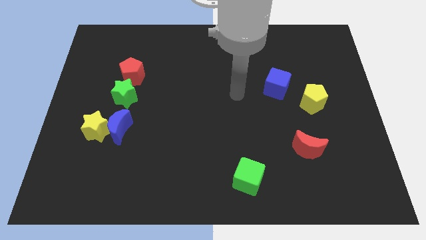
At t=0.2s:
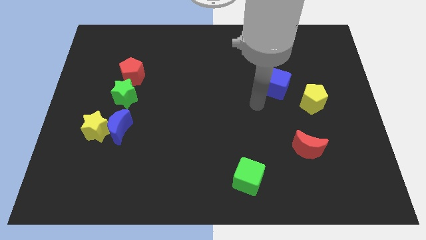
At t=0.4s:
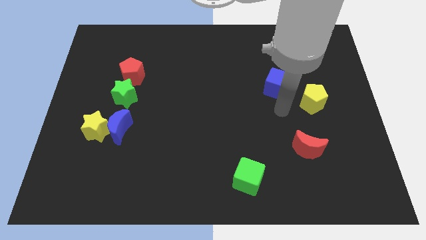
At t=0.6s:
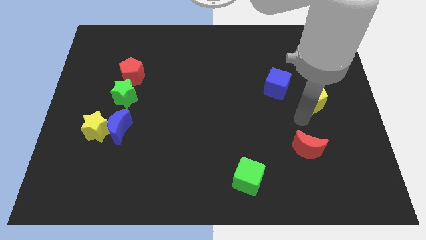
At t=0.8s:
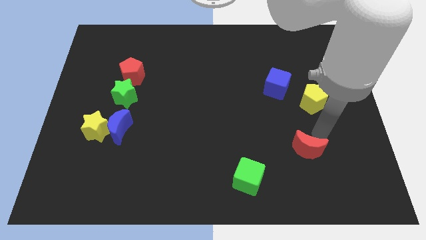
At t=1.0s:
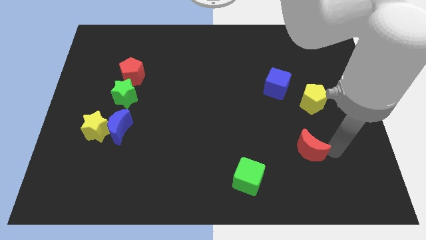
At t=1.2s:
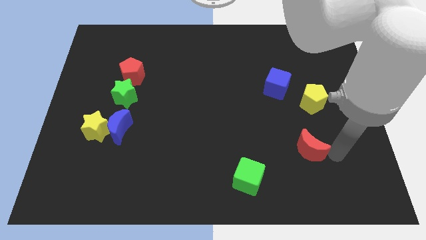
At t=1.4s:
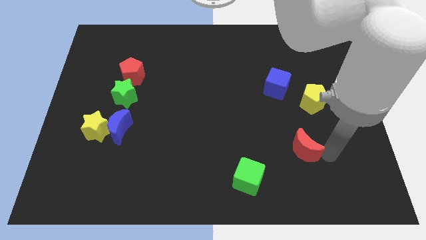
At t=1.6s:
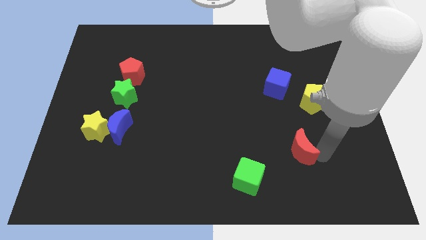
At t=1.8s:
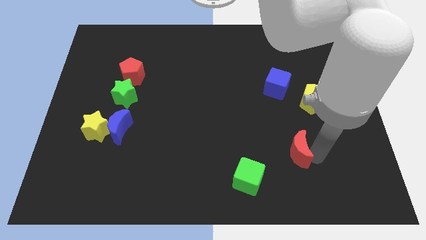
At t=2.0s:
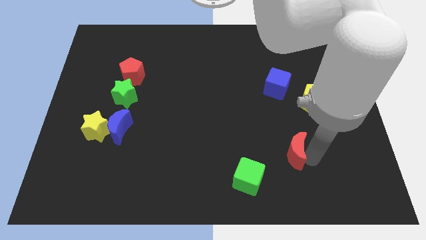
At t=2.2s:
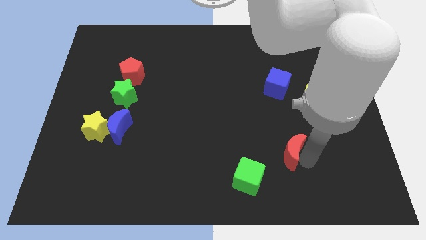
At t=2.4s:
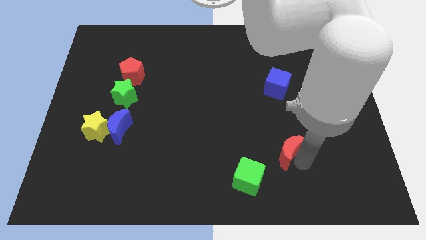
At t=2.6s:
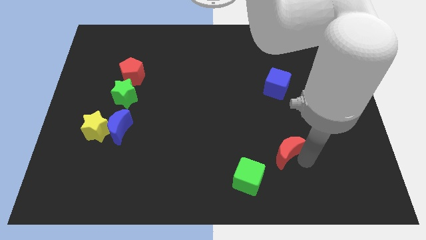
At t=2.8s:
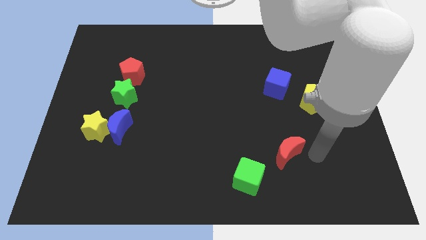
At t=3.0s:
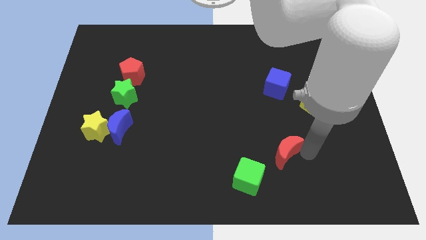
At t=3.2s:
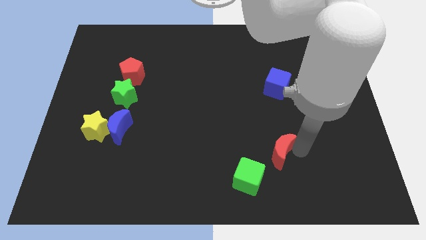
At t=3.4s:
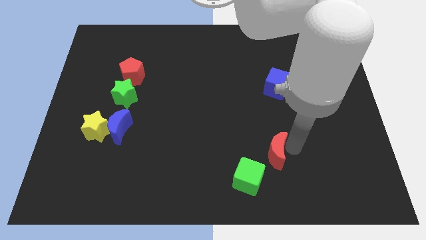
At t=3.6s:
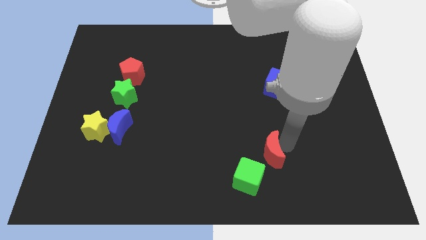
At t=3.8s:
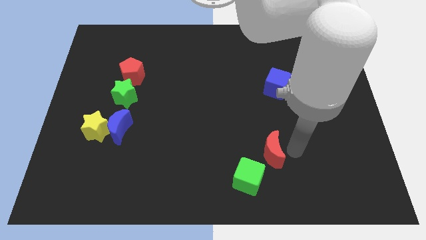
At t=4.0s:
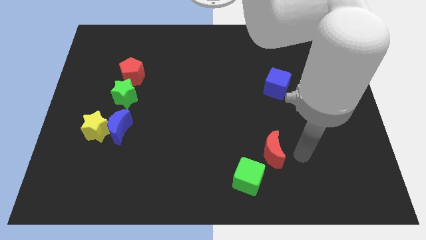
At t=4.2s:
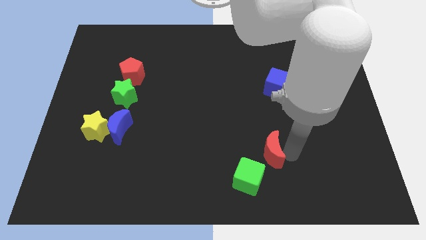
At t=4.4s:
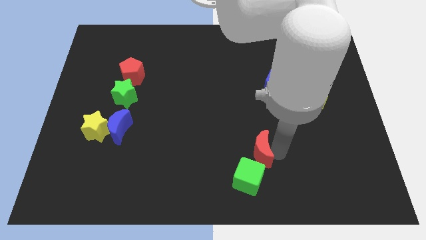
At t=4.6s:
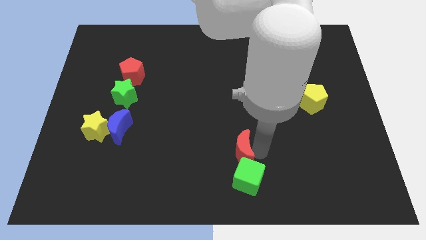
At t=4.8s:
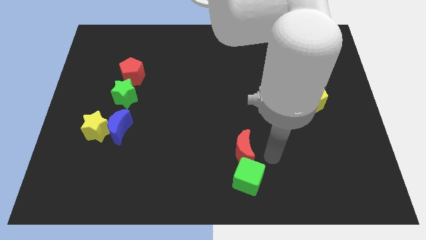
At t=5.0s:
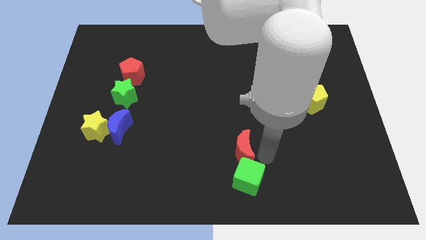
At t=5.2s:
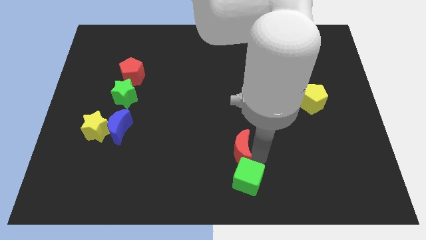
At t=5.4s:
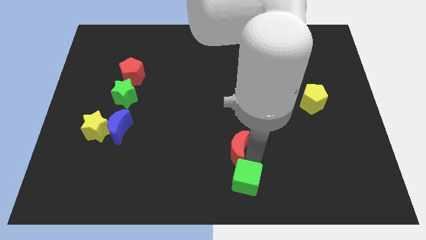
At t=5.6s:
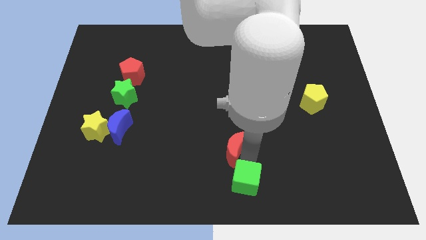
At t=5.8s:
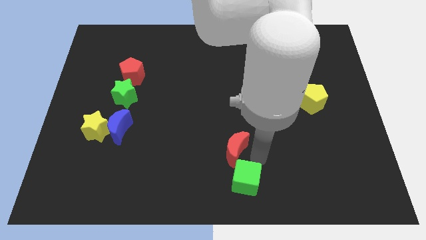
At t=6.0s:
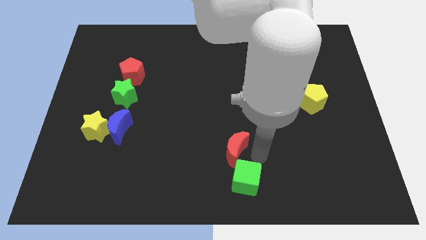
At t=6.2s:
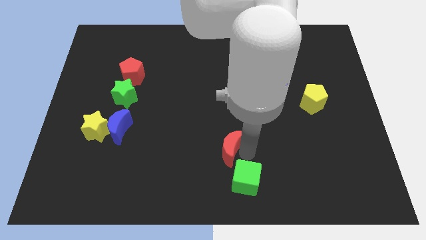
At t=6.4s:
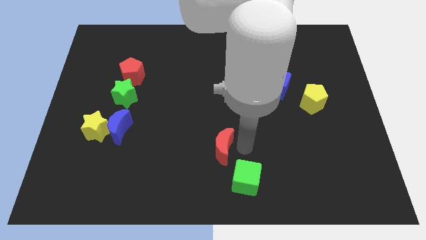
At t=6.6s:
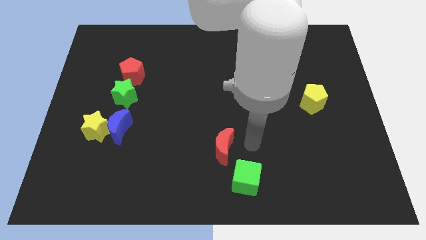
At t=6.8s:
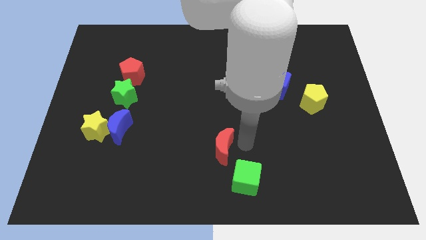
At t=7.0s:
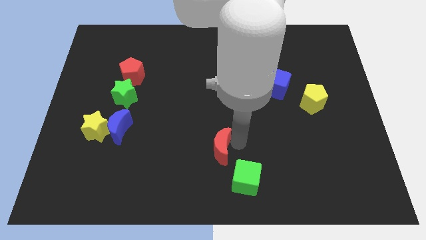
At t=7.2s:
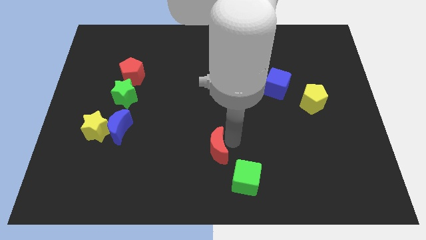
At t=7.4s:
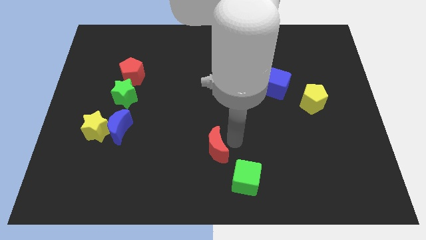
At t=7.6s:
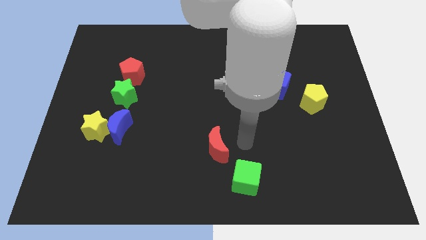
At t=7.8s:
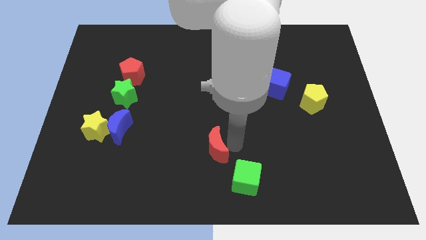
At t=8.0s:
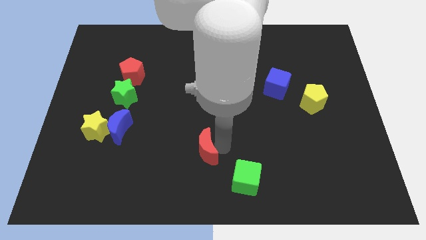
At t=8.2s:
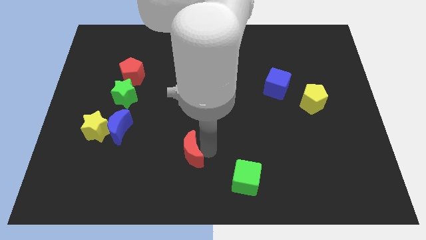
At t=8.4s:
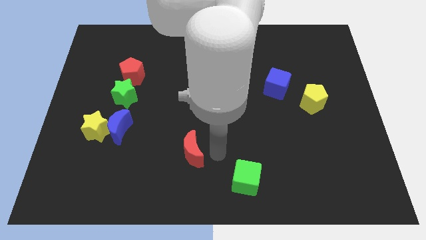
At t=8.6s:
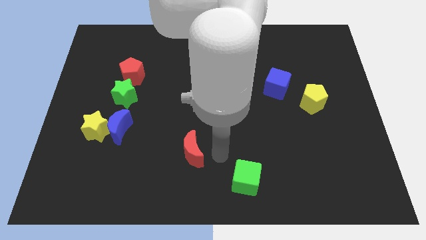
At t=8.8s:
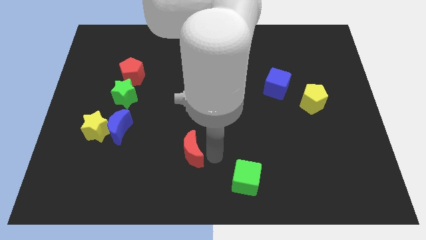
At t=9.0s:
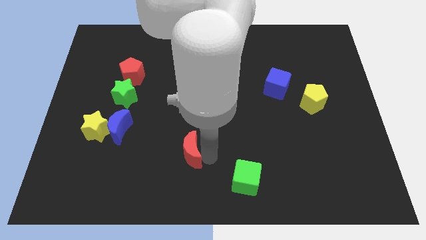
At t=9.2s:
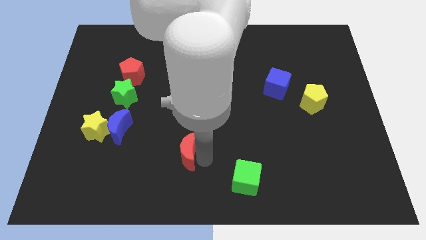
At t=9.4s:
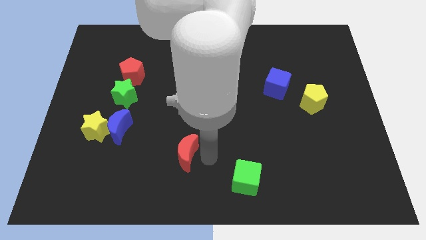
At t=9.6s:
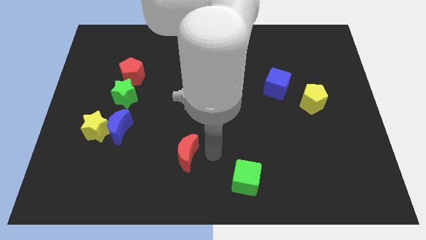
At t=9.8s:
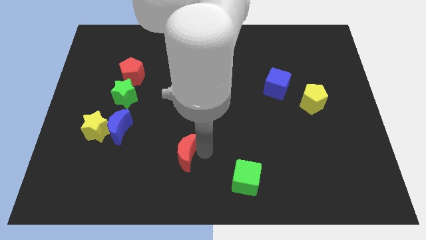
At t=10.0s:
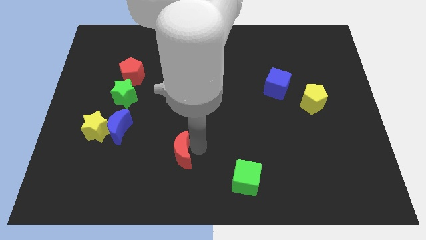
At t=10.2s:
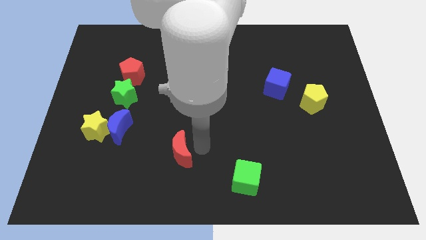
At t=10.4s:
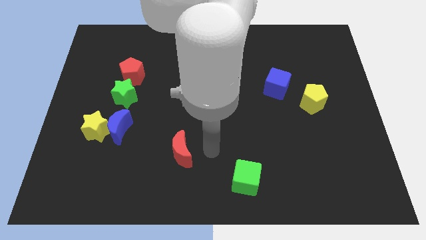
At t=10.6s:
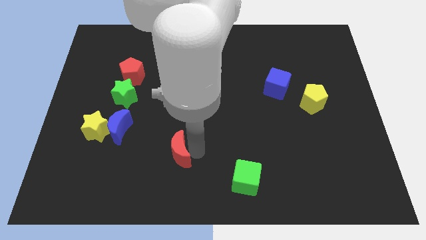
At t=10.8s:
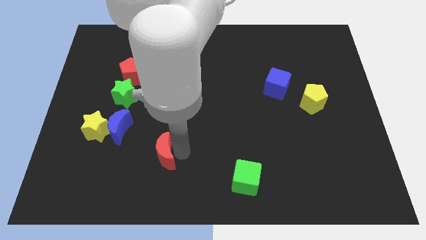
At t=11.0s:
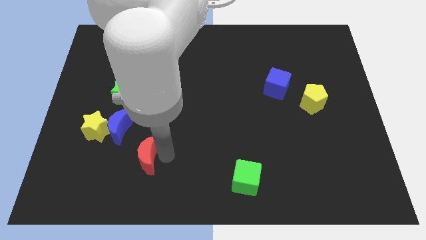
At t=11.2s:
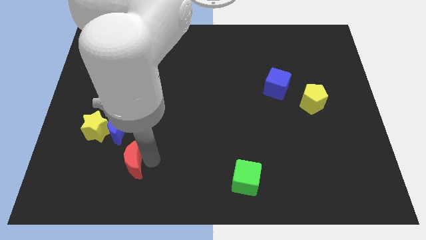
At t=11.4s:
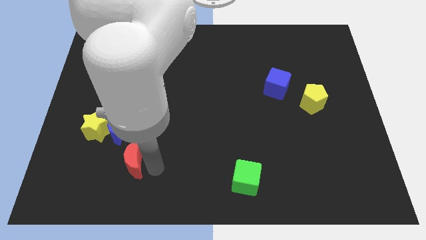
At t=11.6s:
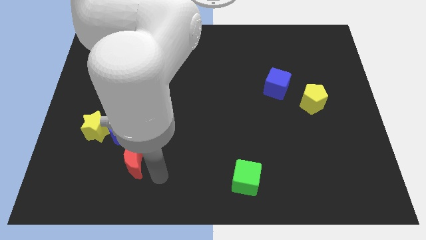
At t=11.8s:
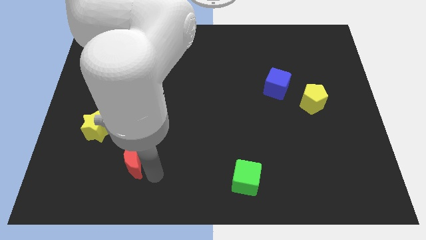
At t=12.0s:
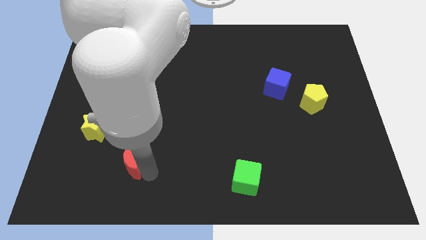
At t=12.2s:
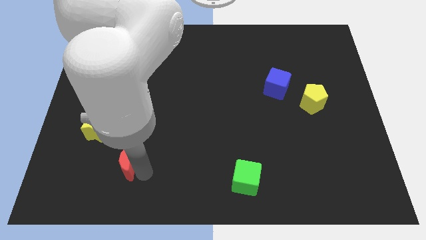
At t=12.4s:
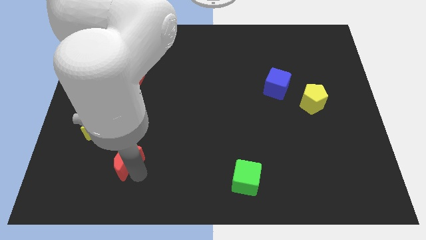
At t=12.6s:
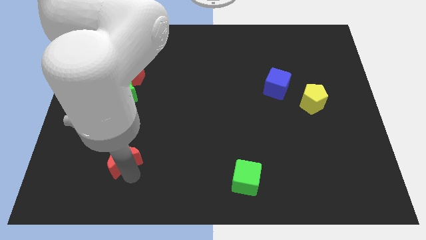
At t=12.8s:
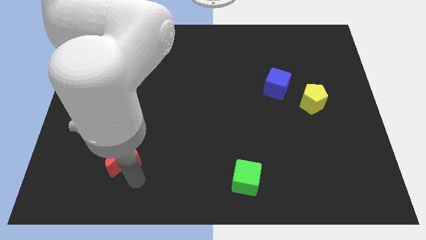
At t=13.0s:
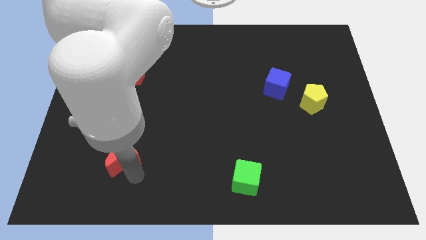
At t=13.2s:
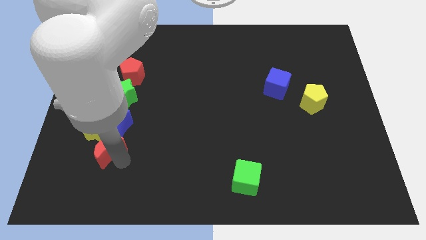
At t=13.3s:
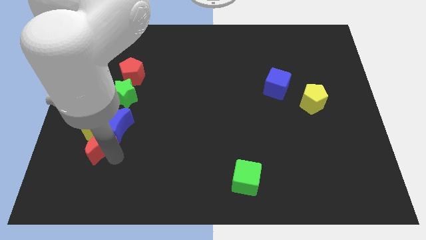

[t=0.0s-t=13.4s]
move the red moon to the yellow star

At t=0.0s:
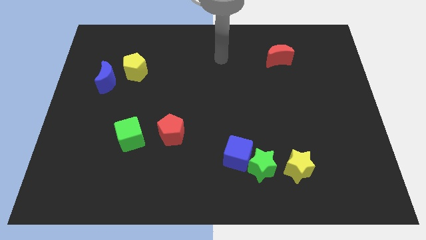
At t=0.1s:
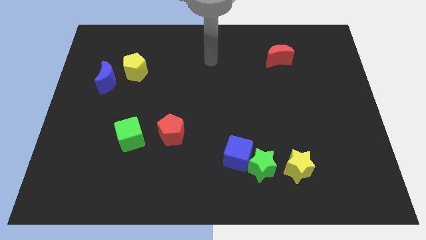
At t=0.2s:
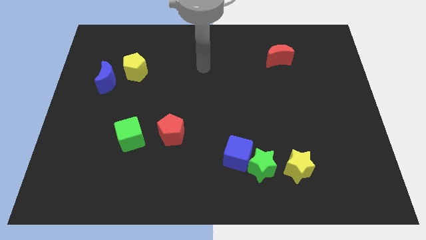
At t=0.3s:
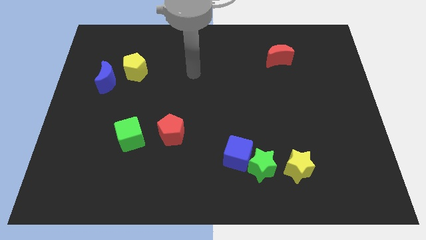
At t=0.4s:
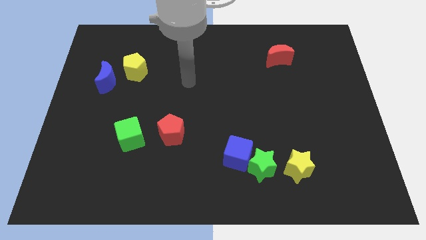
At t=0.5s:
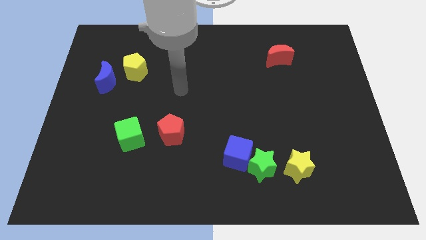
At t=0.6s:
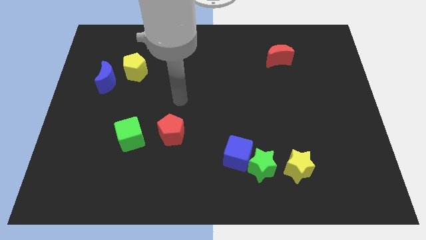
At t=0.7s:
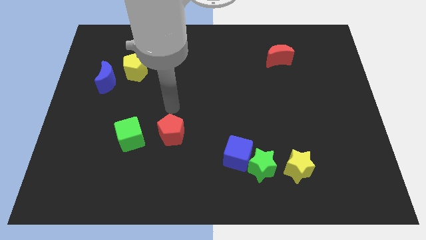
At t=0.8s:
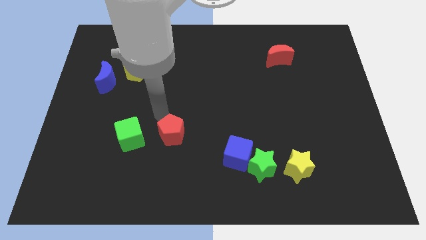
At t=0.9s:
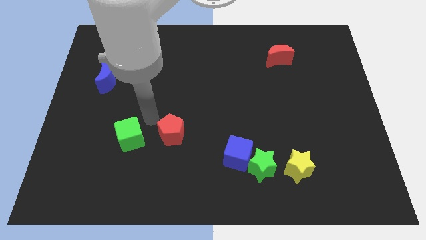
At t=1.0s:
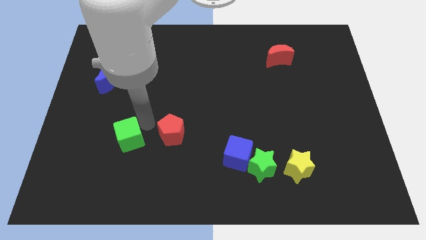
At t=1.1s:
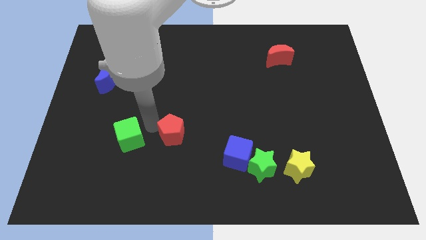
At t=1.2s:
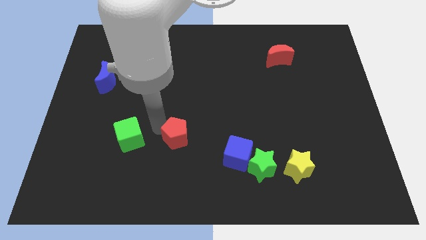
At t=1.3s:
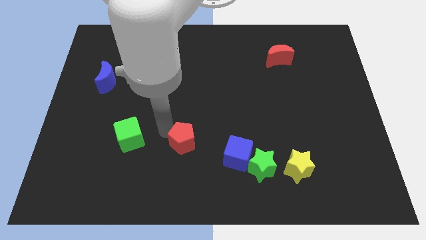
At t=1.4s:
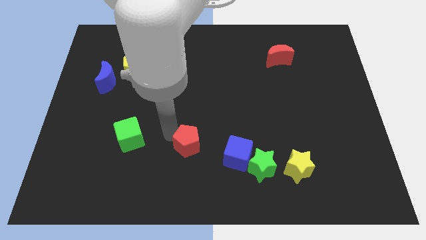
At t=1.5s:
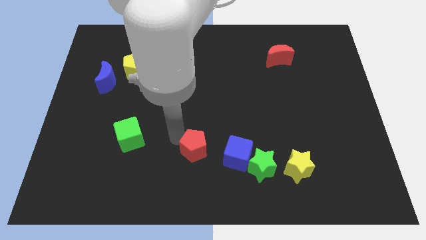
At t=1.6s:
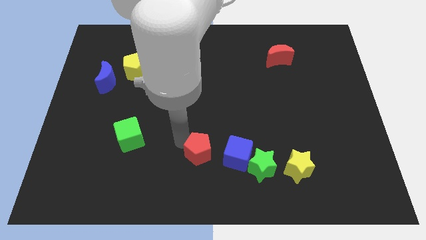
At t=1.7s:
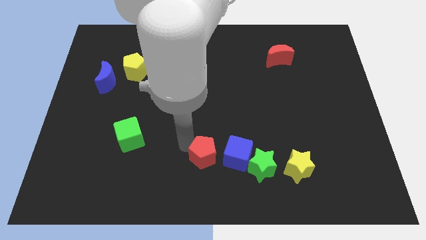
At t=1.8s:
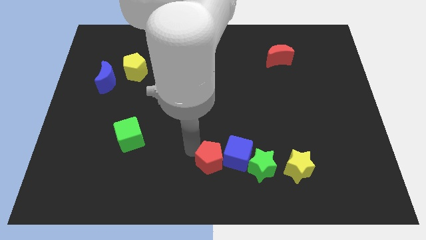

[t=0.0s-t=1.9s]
put the red pentagon towards the blue cube
